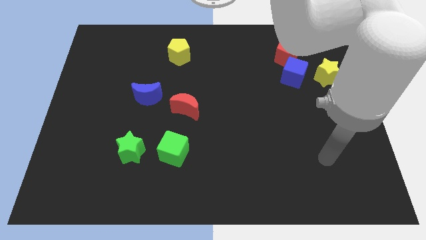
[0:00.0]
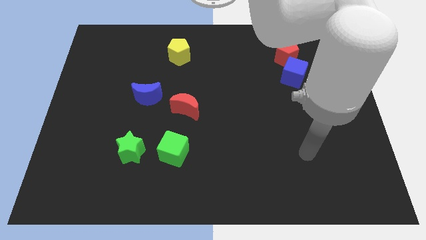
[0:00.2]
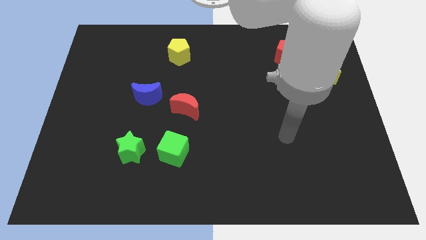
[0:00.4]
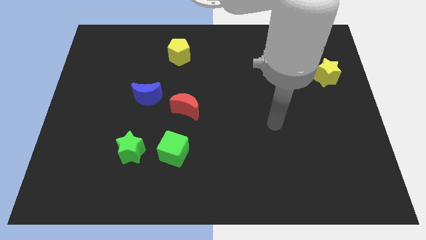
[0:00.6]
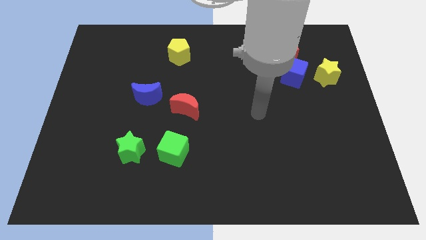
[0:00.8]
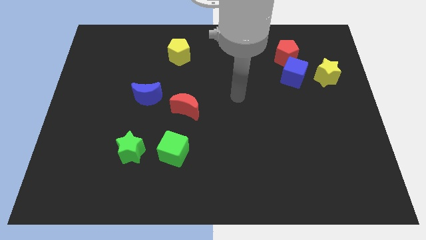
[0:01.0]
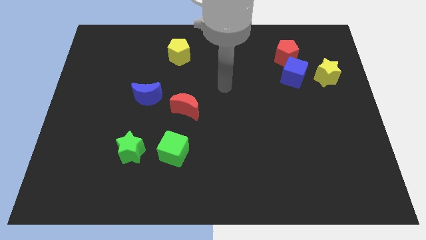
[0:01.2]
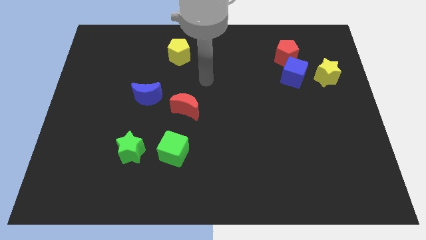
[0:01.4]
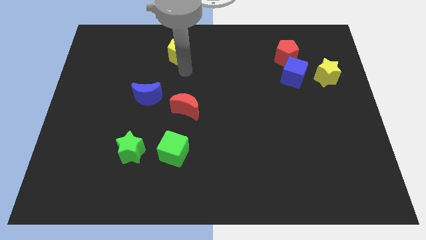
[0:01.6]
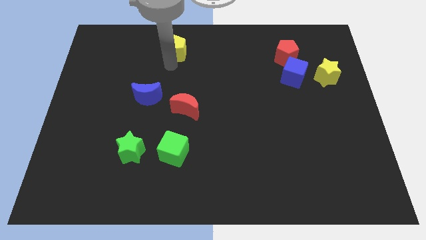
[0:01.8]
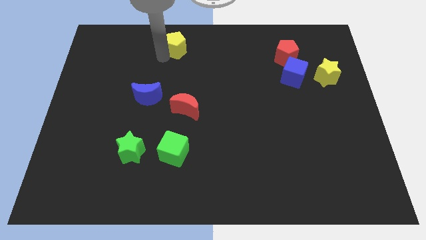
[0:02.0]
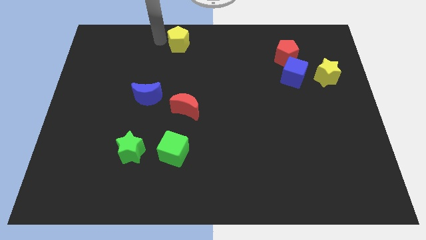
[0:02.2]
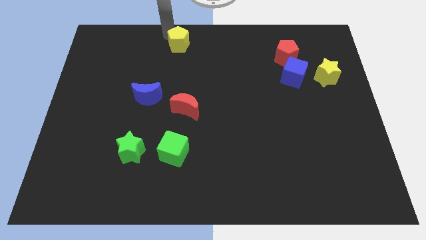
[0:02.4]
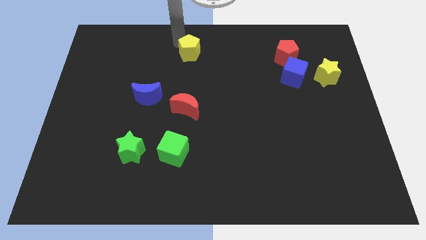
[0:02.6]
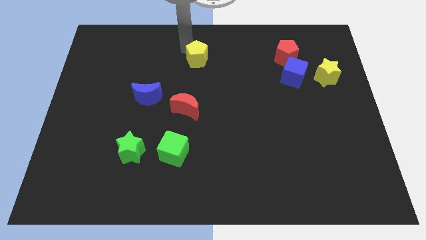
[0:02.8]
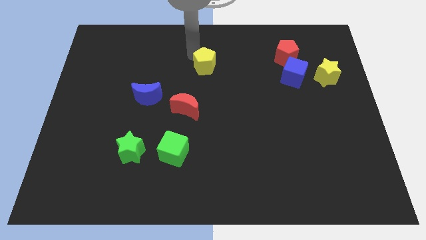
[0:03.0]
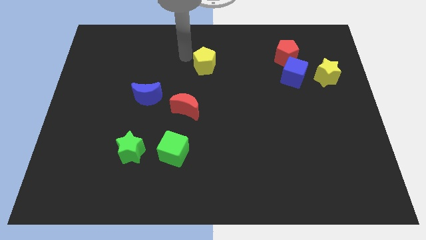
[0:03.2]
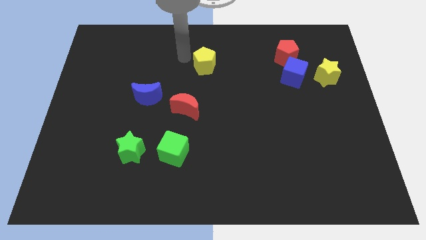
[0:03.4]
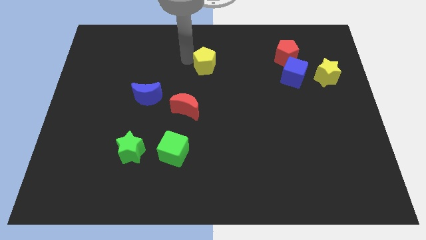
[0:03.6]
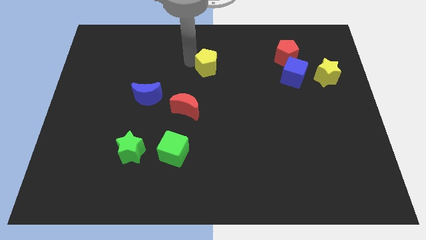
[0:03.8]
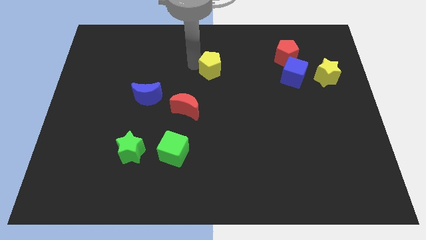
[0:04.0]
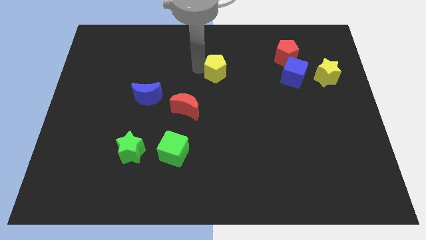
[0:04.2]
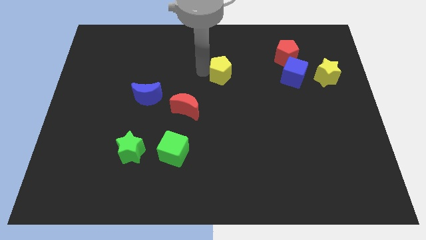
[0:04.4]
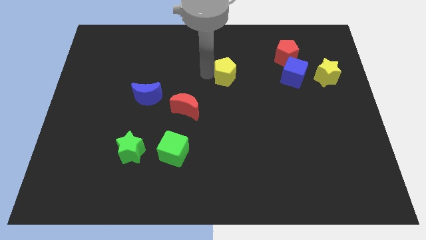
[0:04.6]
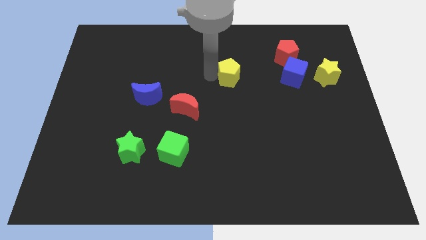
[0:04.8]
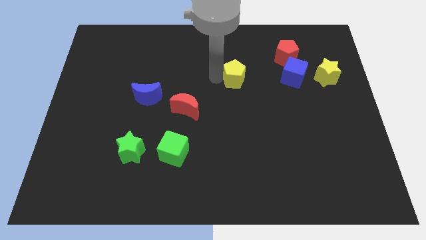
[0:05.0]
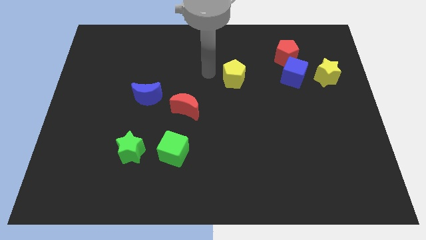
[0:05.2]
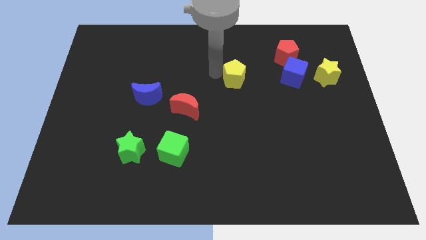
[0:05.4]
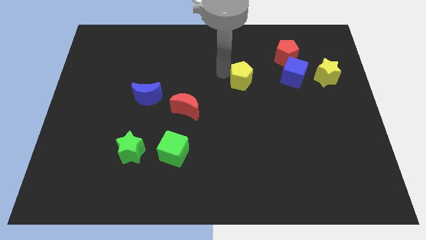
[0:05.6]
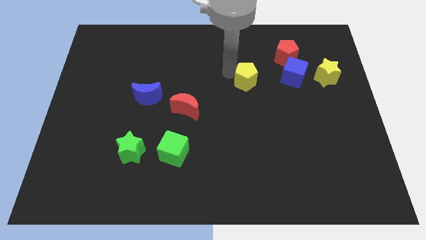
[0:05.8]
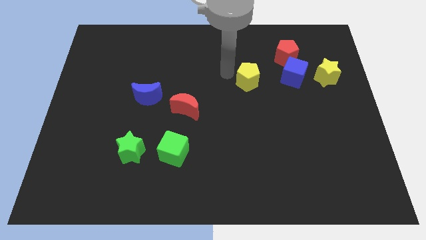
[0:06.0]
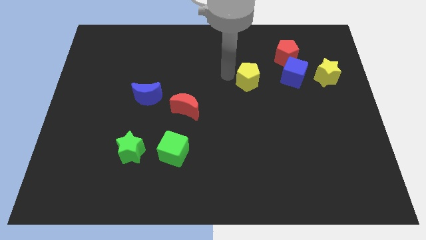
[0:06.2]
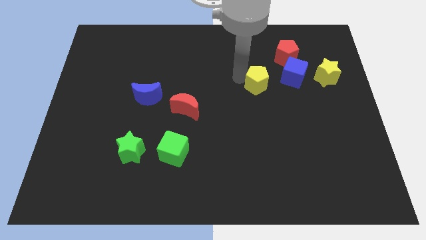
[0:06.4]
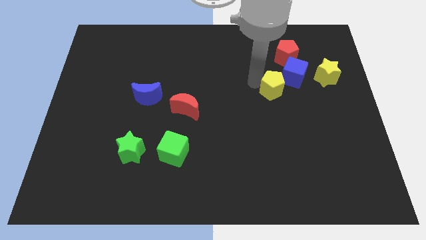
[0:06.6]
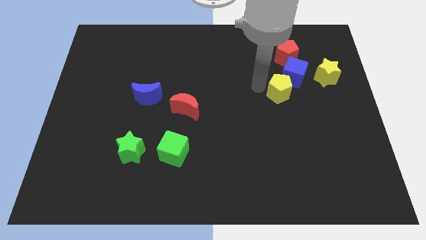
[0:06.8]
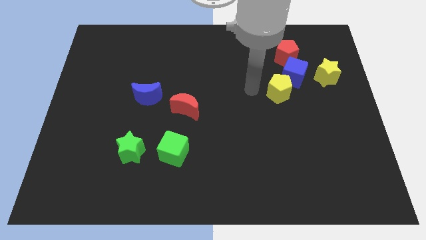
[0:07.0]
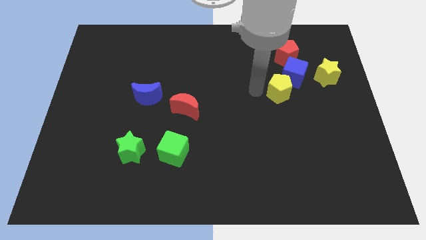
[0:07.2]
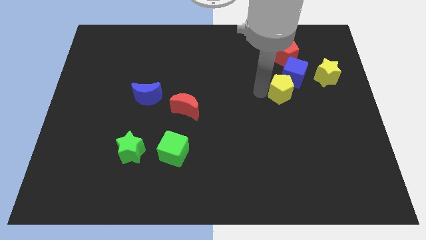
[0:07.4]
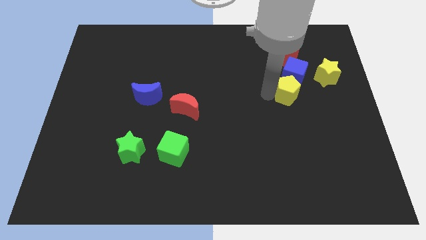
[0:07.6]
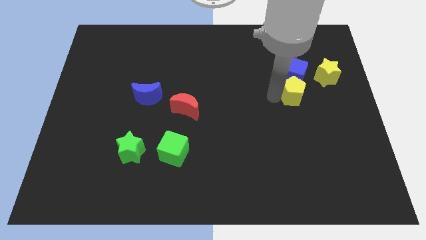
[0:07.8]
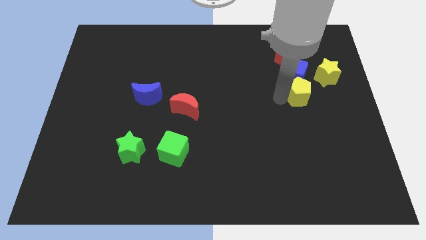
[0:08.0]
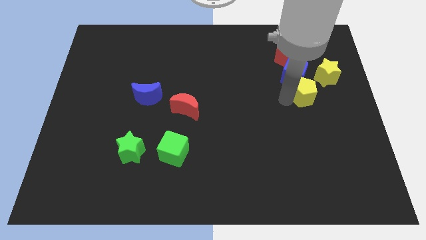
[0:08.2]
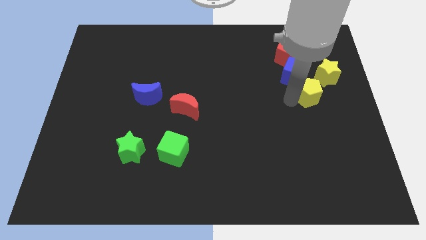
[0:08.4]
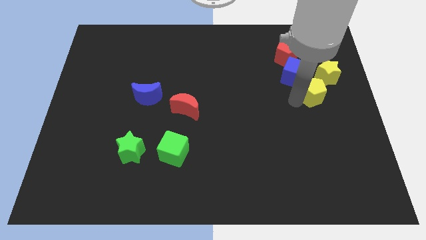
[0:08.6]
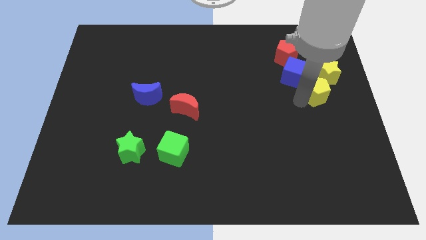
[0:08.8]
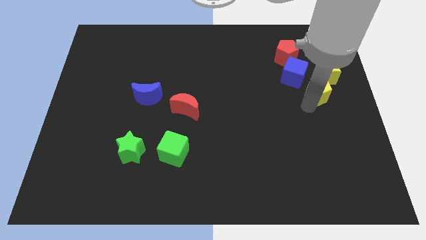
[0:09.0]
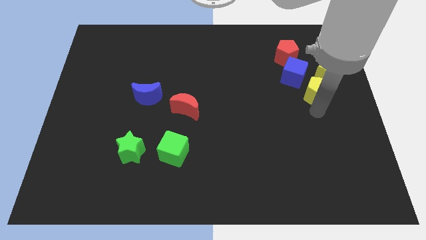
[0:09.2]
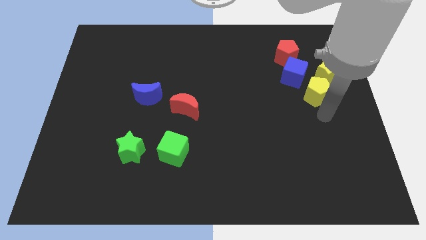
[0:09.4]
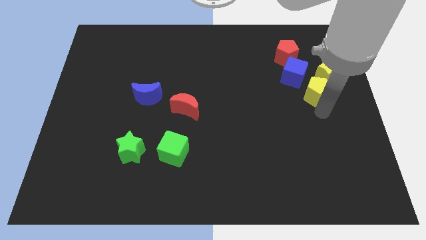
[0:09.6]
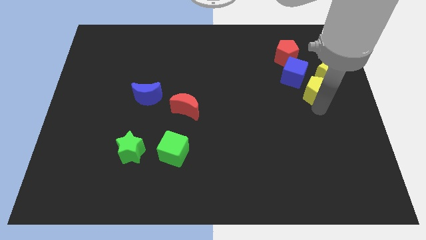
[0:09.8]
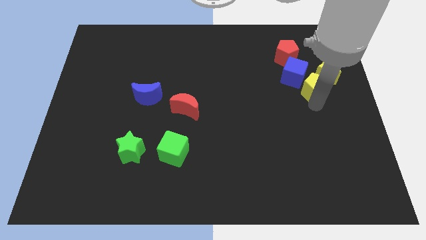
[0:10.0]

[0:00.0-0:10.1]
move the yellow pentagon to the right

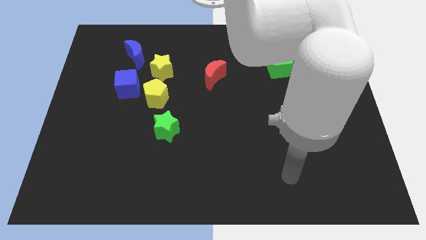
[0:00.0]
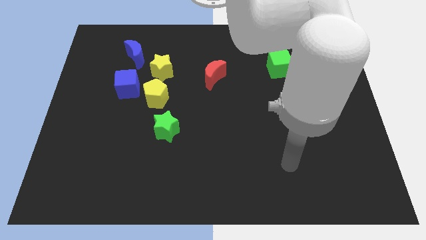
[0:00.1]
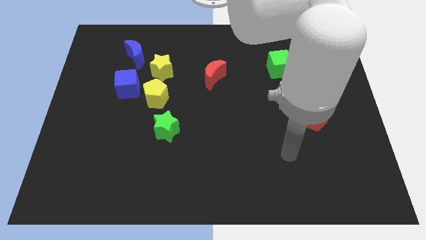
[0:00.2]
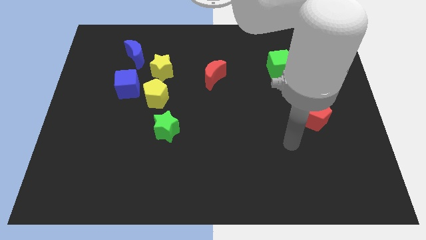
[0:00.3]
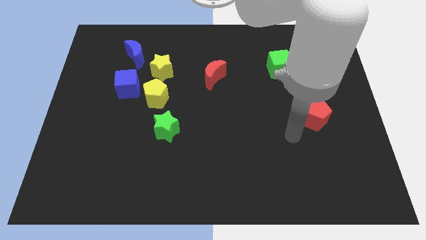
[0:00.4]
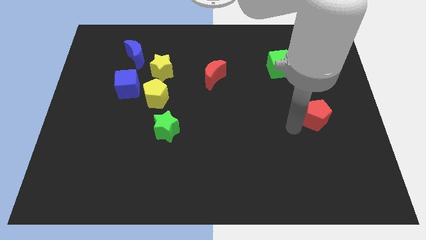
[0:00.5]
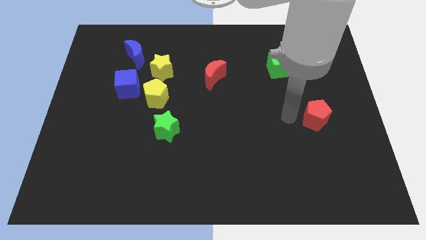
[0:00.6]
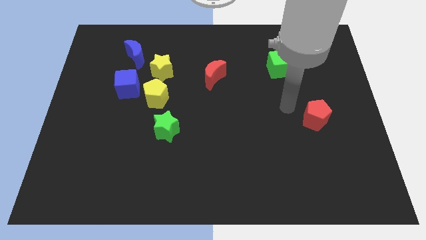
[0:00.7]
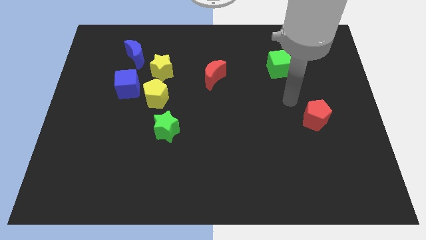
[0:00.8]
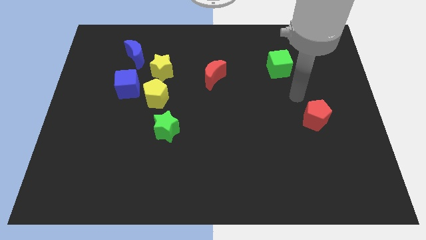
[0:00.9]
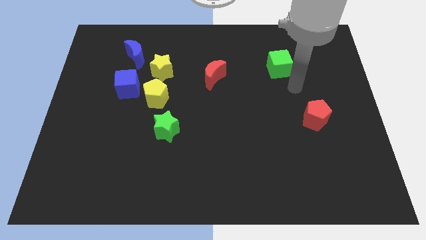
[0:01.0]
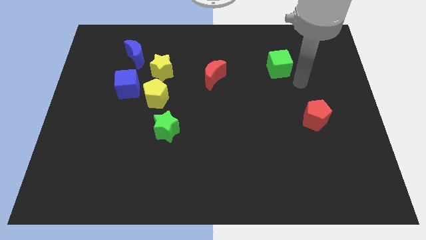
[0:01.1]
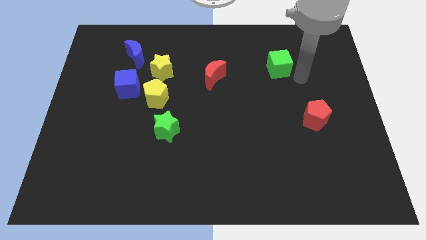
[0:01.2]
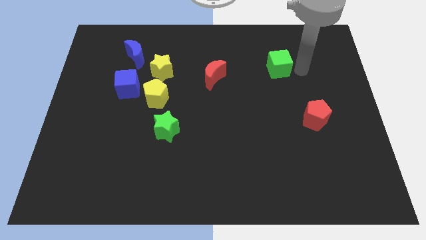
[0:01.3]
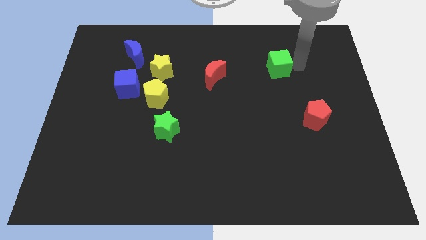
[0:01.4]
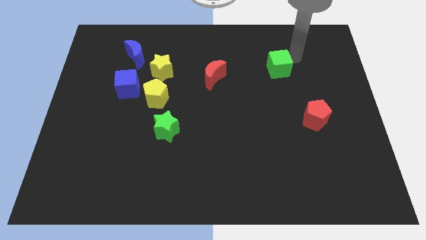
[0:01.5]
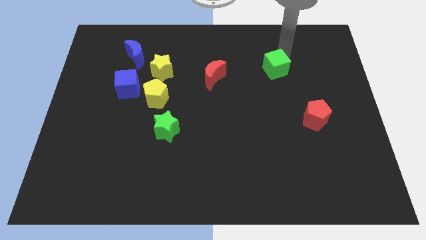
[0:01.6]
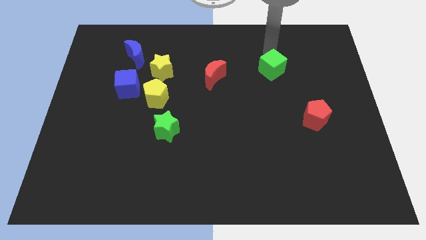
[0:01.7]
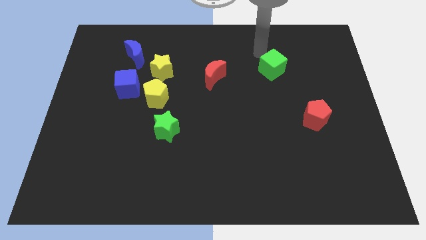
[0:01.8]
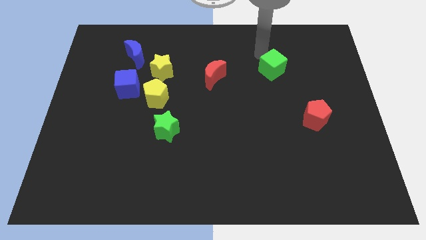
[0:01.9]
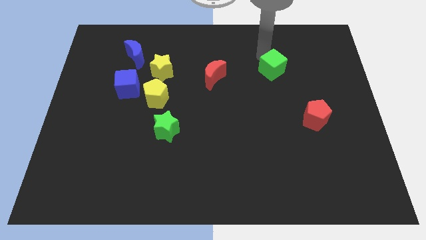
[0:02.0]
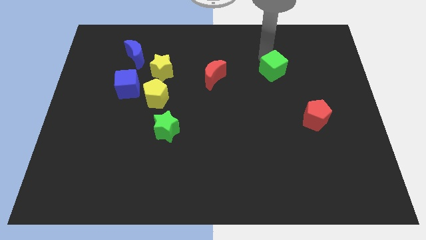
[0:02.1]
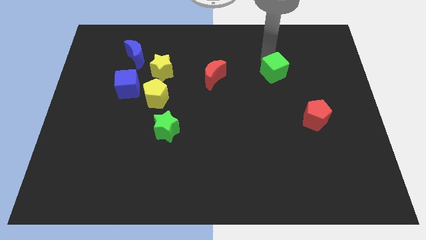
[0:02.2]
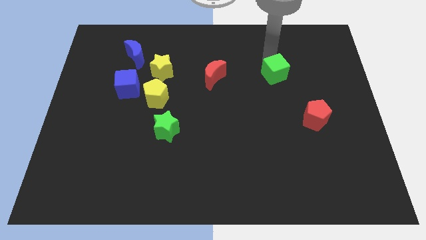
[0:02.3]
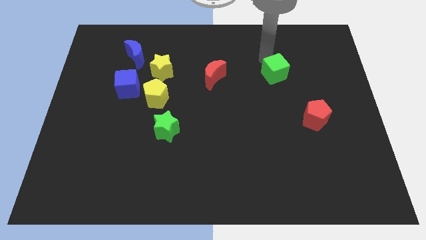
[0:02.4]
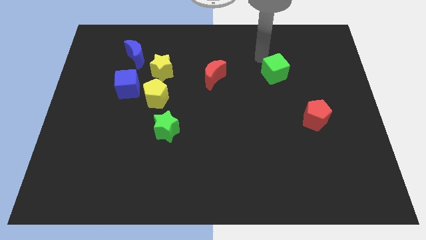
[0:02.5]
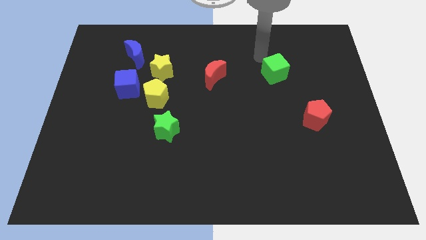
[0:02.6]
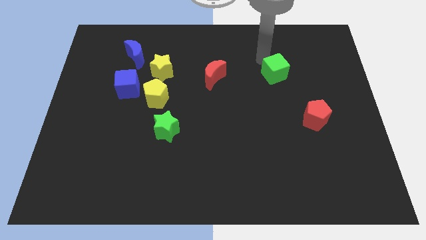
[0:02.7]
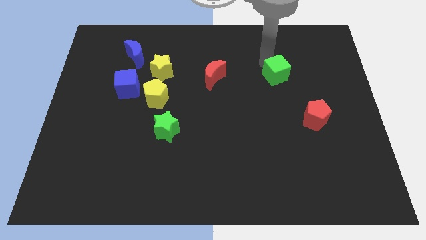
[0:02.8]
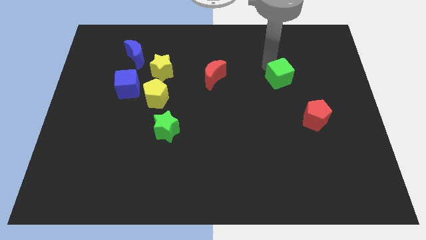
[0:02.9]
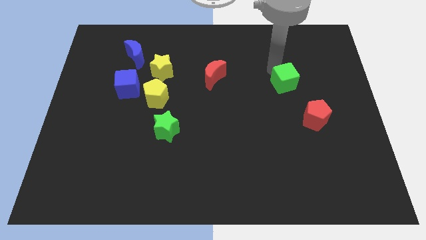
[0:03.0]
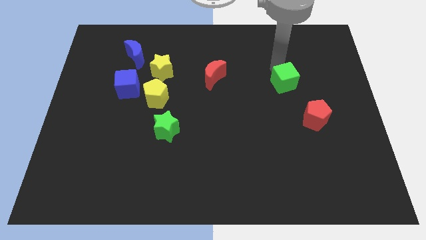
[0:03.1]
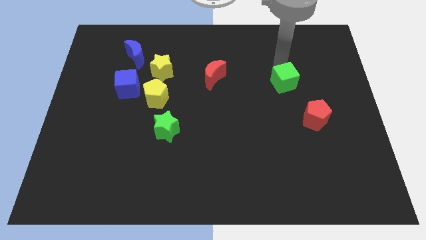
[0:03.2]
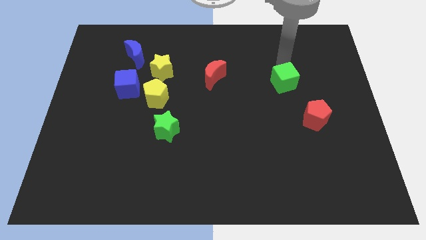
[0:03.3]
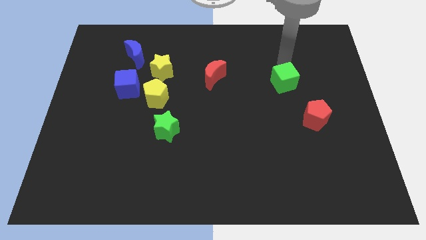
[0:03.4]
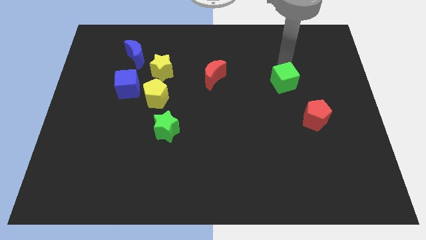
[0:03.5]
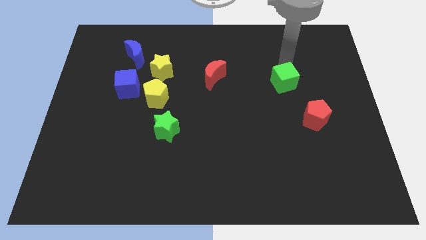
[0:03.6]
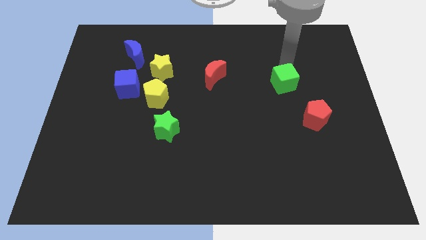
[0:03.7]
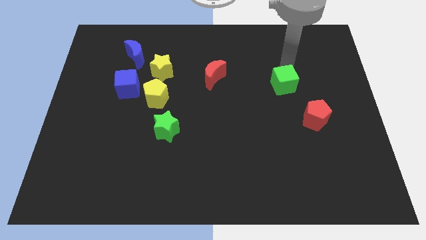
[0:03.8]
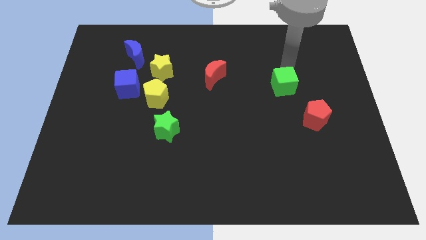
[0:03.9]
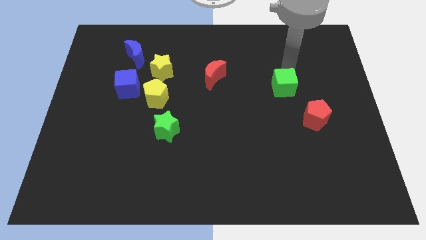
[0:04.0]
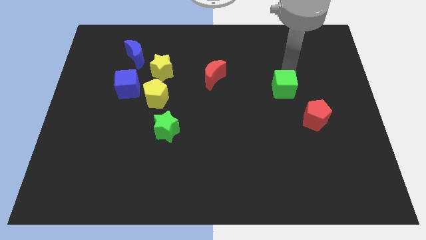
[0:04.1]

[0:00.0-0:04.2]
slightly push the green cube downwards
